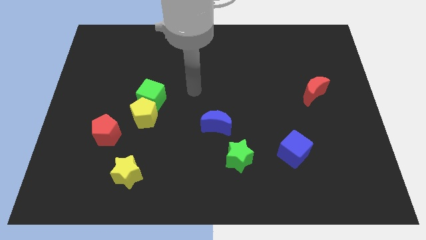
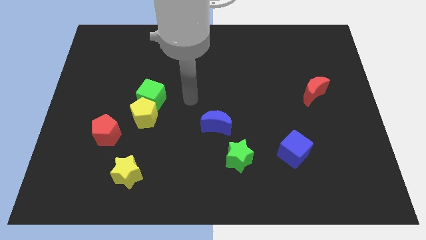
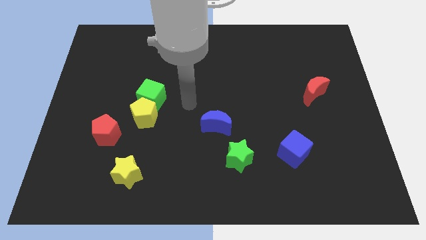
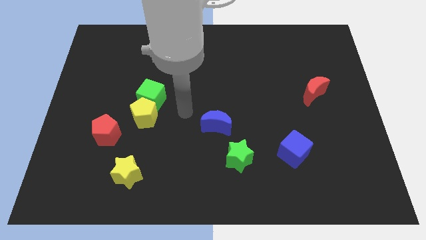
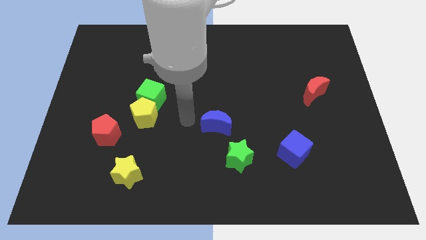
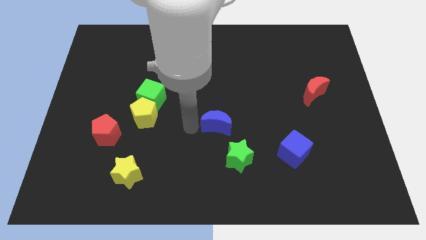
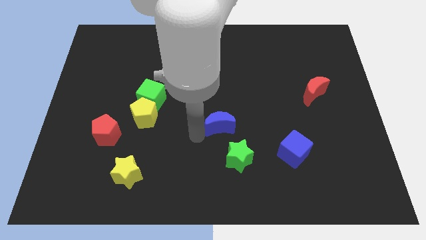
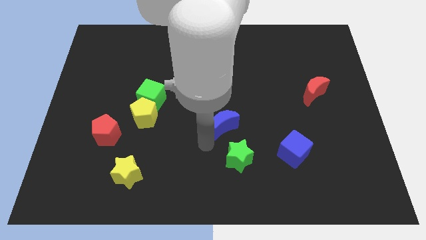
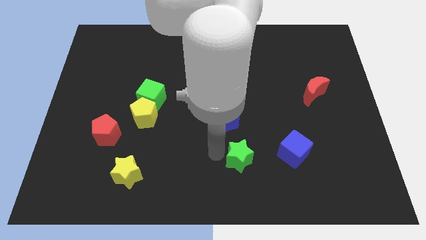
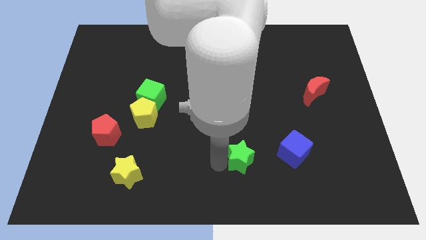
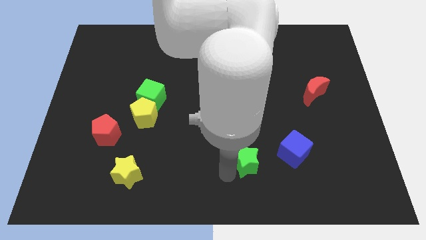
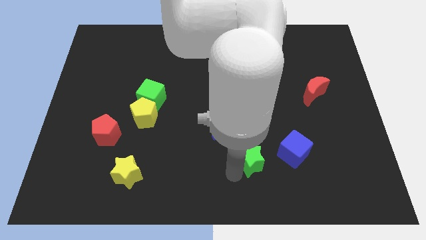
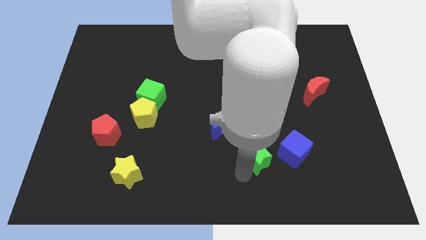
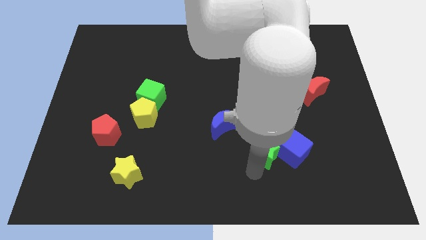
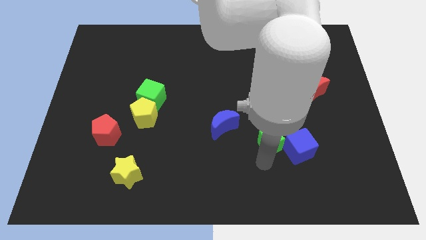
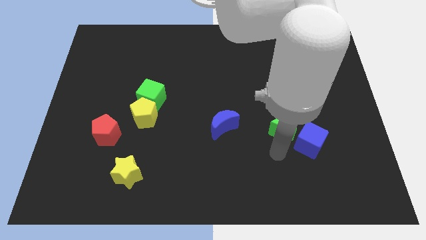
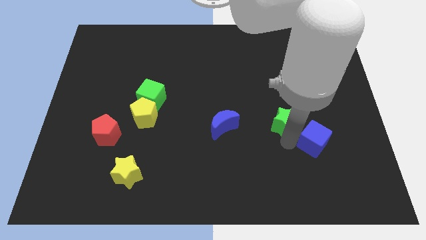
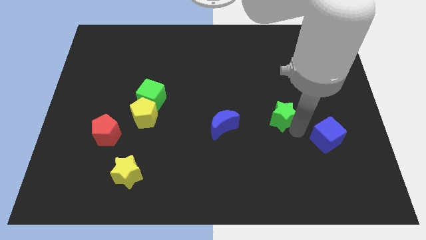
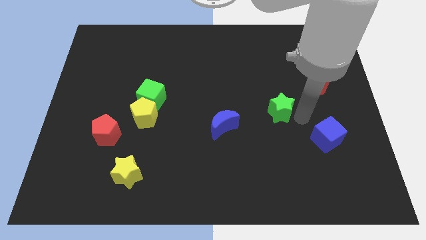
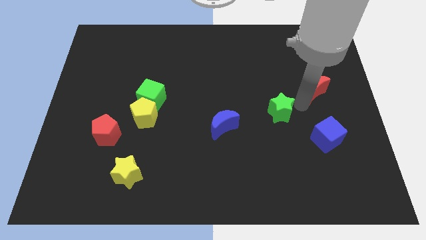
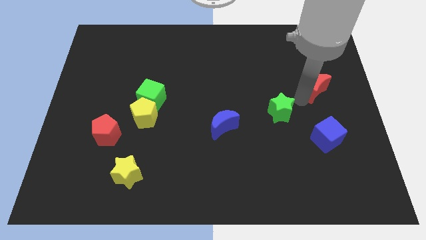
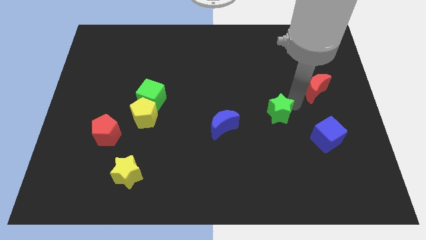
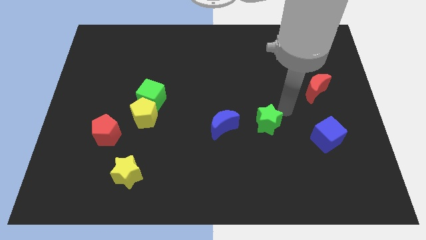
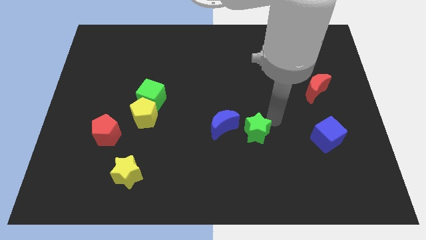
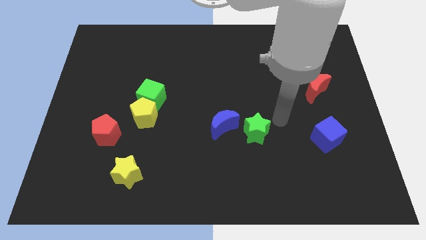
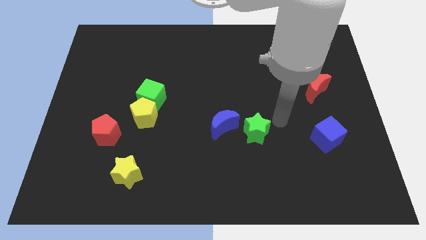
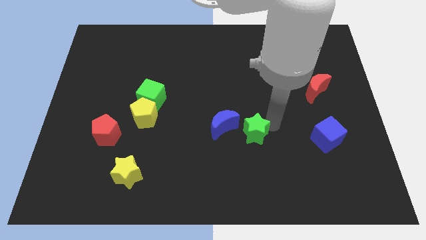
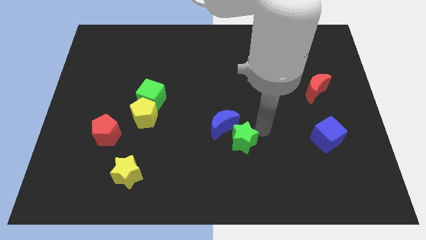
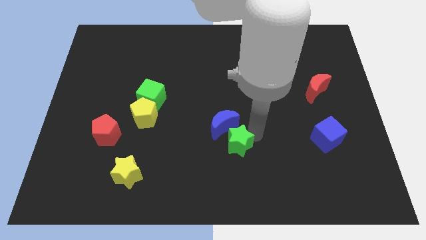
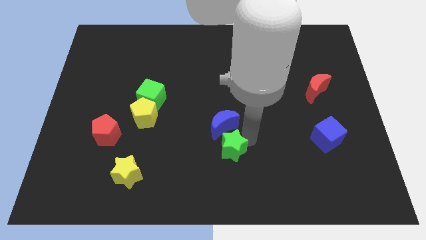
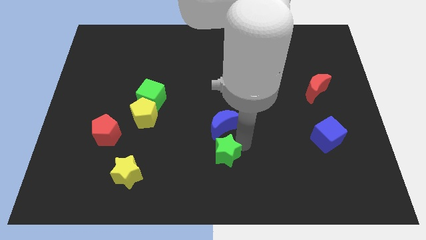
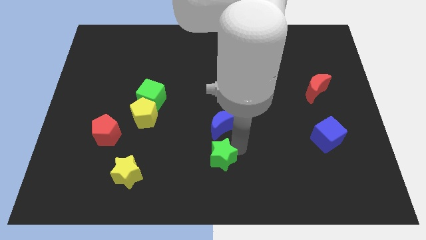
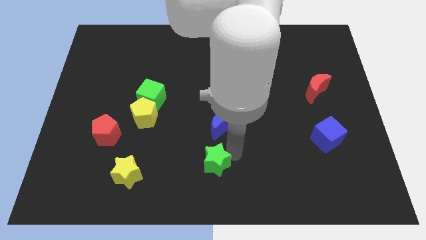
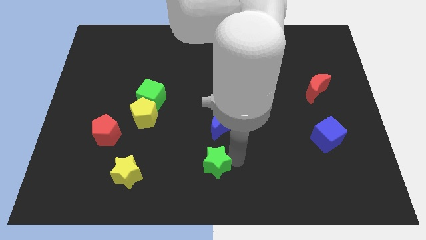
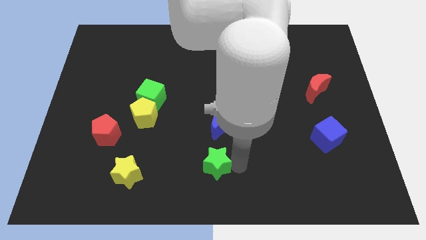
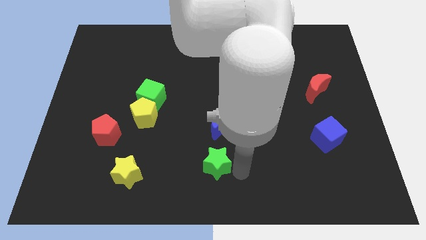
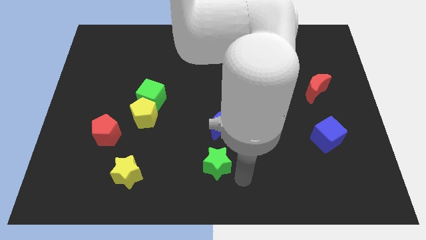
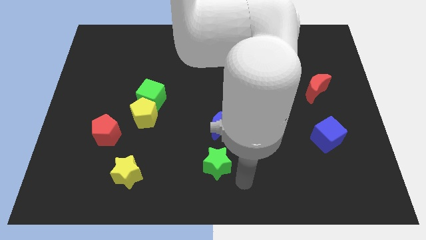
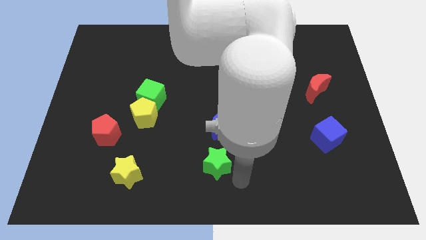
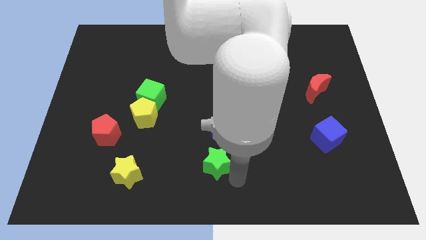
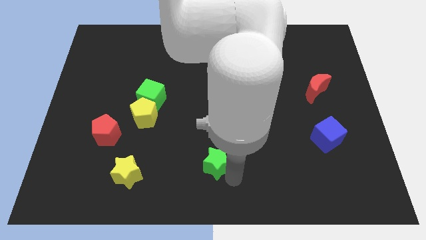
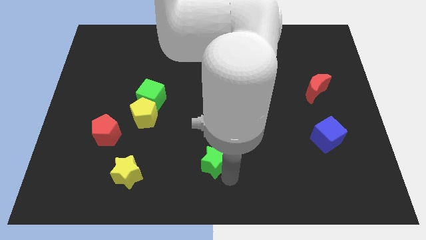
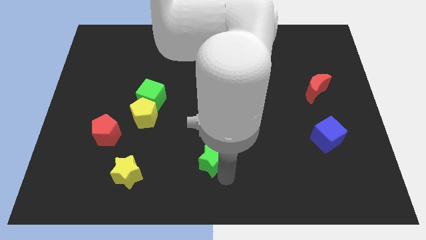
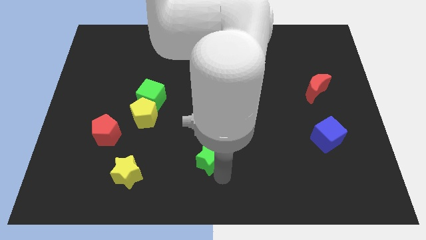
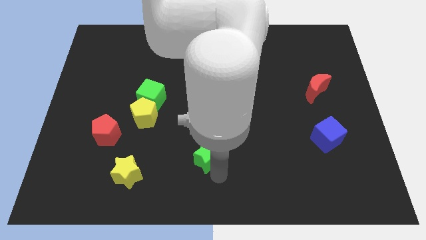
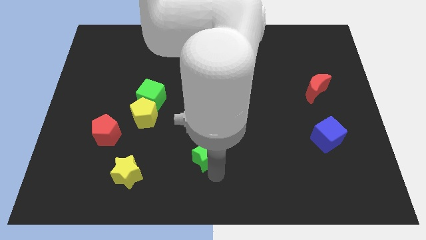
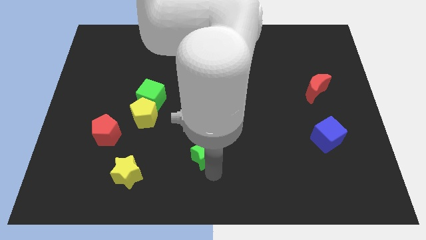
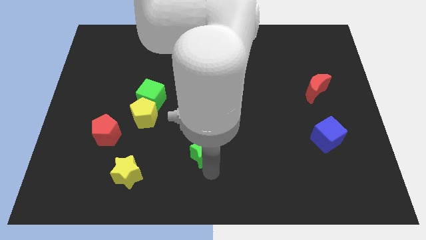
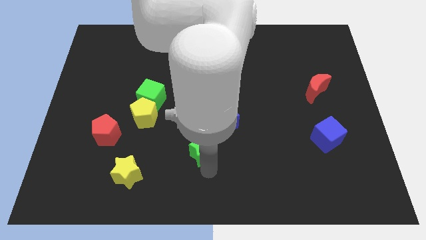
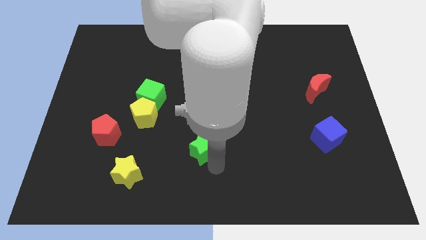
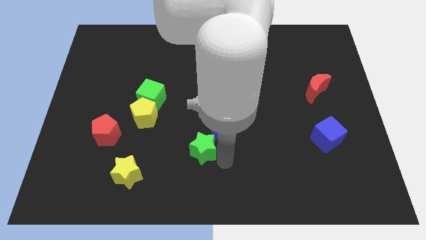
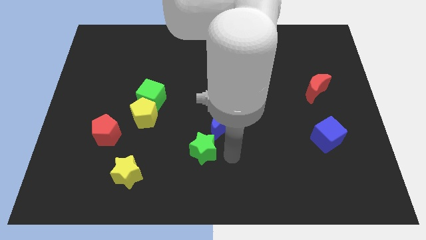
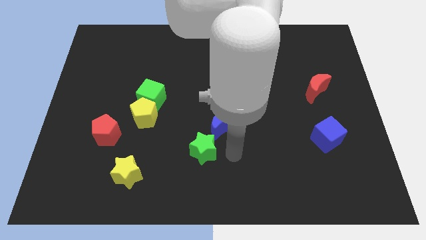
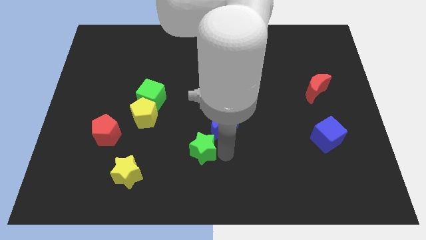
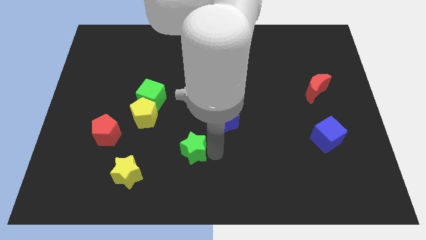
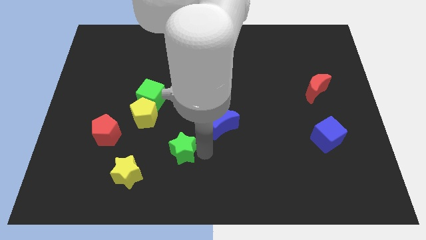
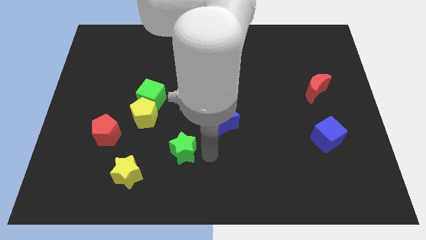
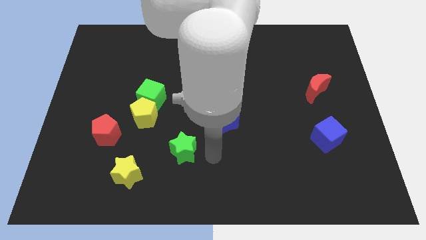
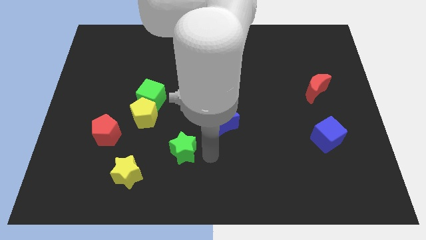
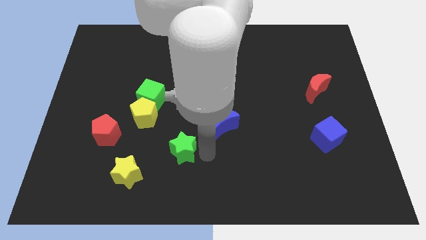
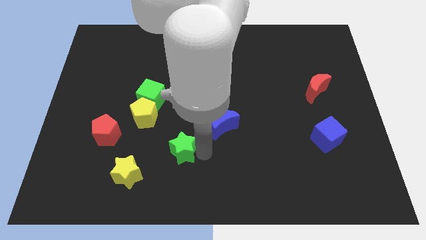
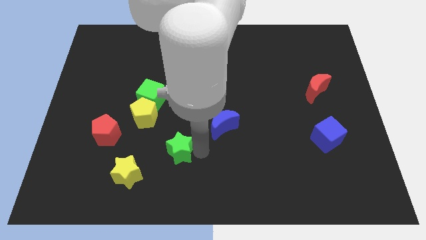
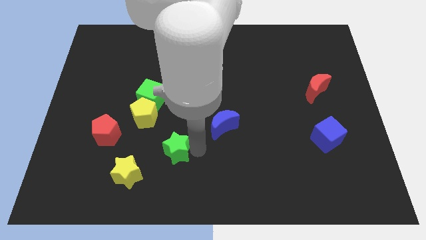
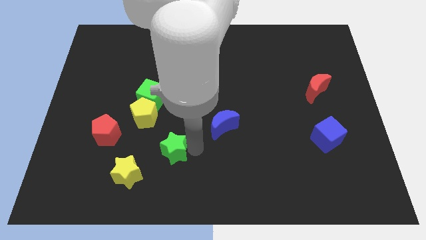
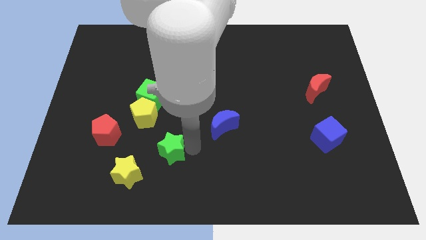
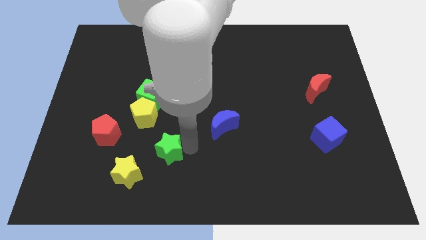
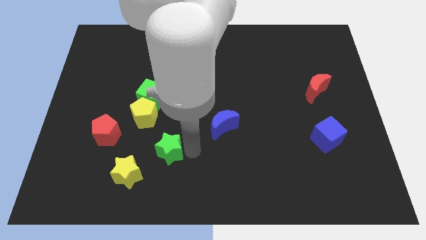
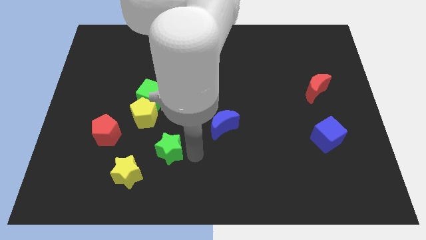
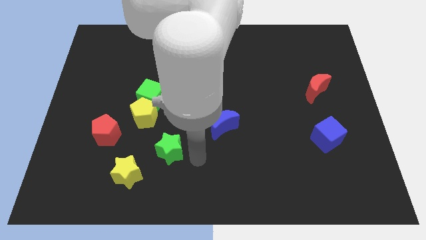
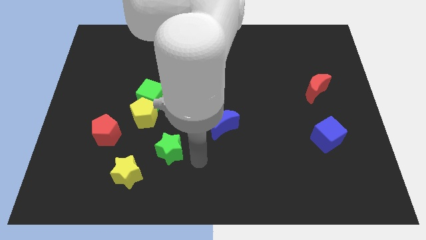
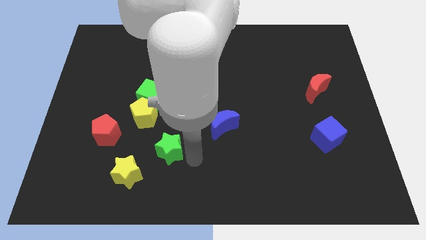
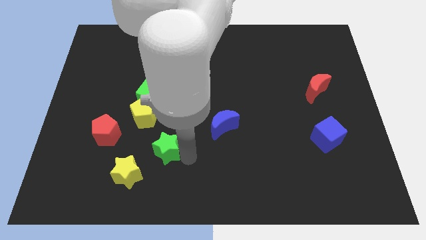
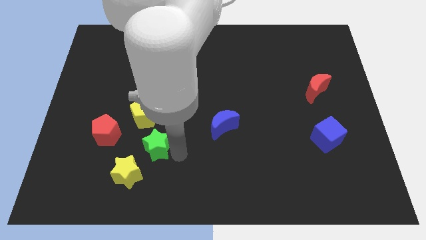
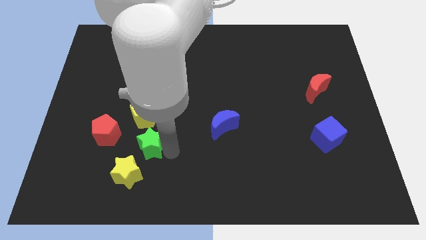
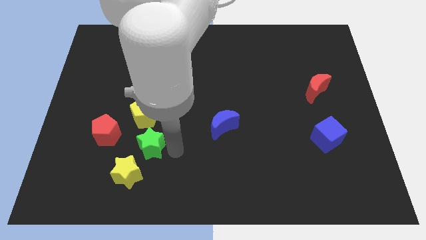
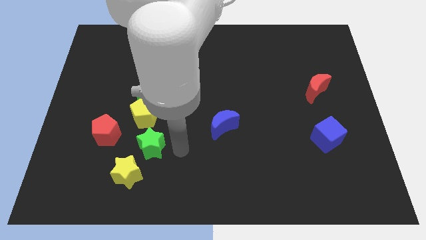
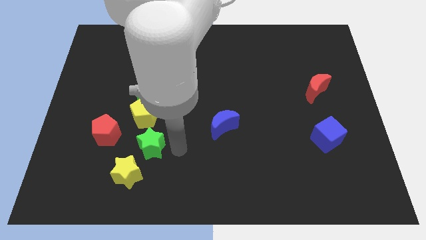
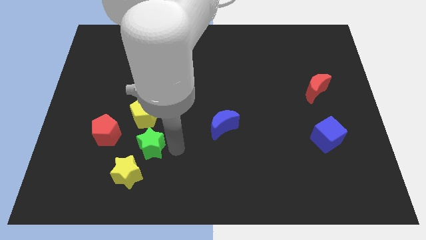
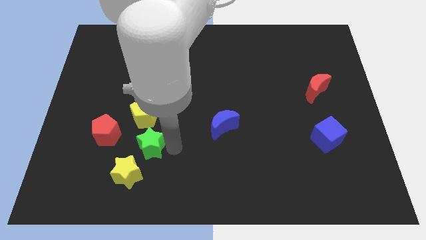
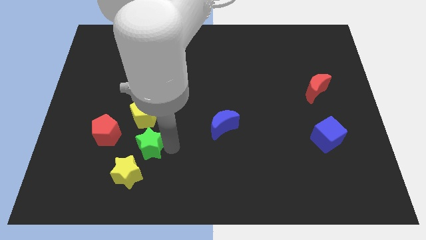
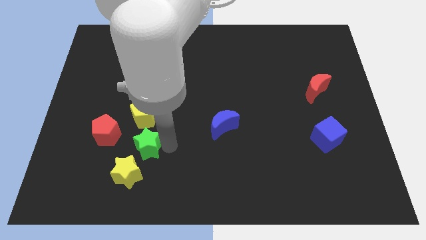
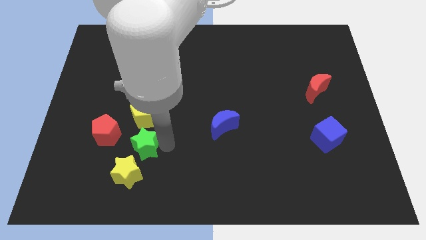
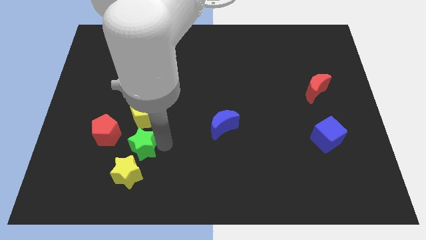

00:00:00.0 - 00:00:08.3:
push the green star left
